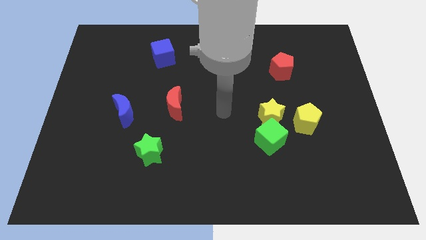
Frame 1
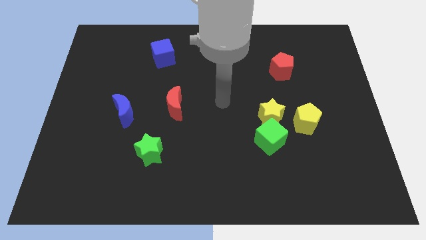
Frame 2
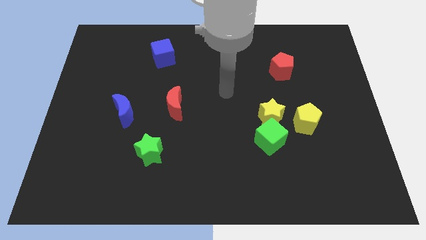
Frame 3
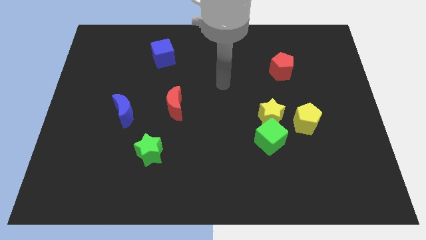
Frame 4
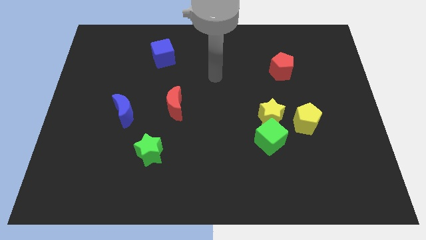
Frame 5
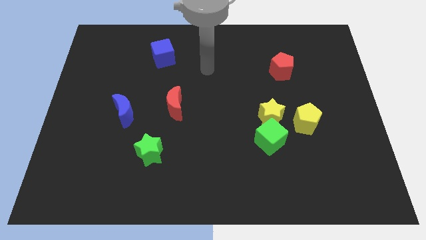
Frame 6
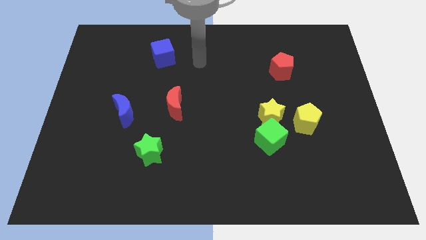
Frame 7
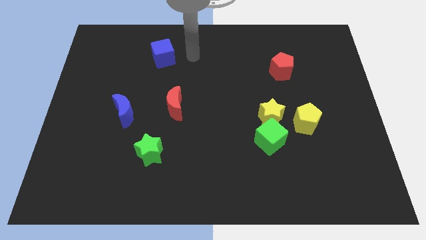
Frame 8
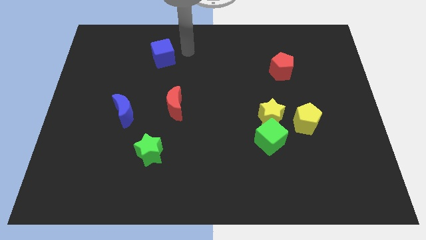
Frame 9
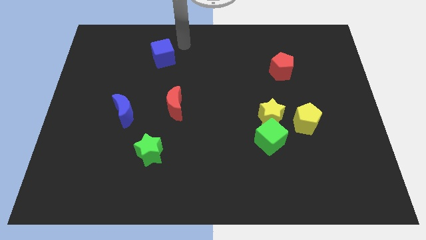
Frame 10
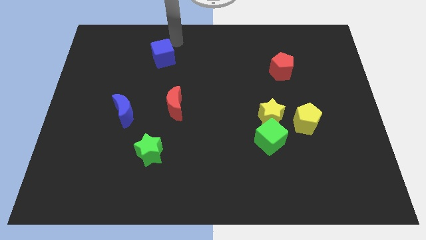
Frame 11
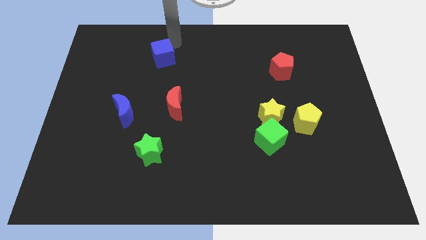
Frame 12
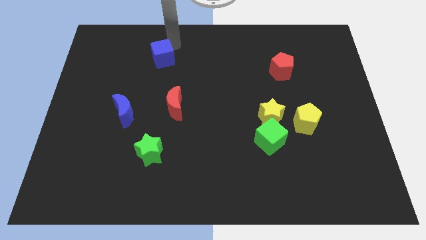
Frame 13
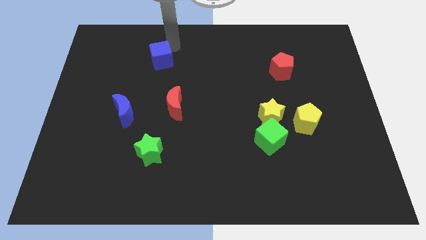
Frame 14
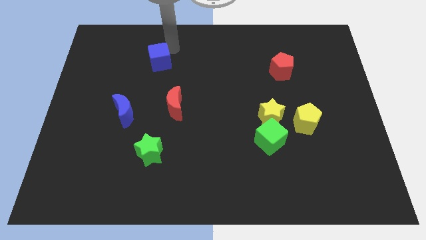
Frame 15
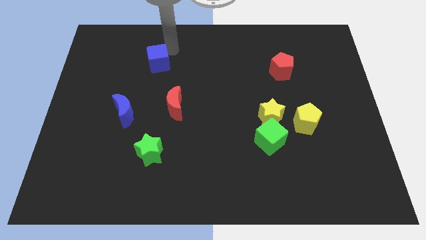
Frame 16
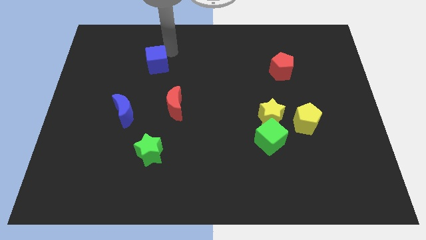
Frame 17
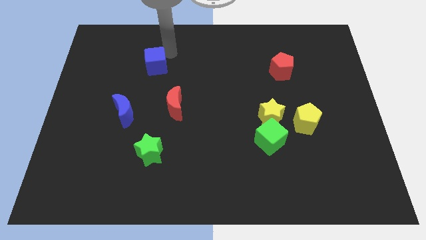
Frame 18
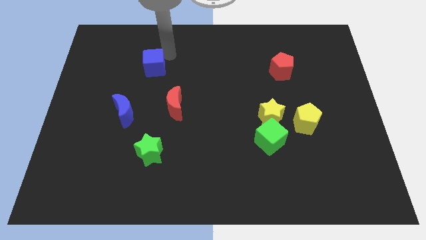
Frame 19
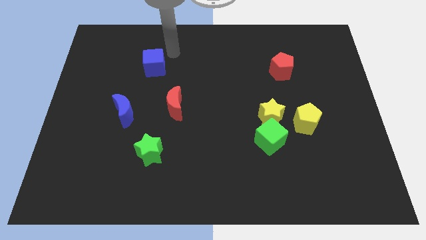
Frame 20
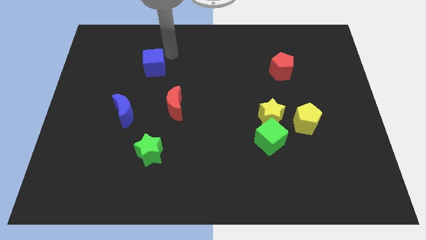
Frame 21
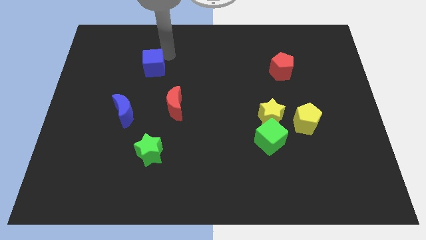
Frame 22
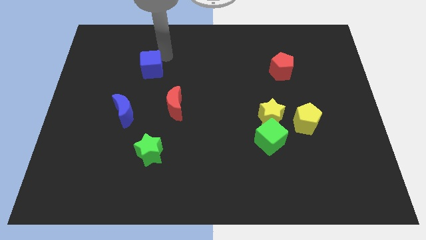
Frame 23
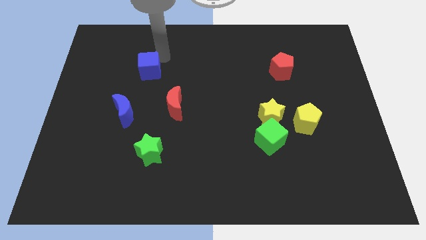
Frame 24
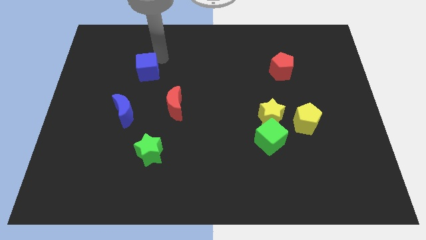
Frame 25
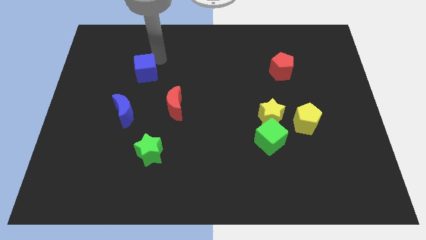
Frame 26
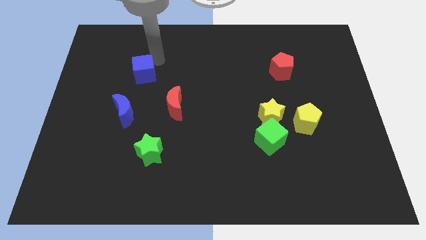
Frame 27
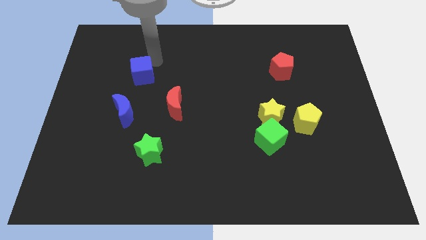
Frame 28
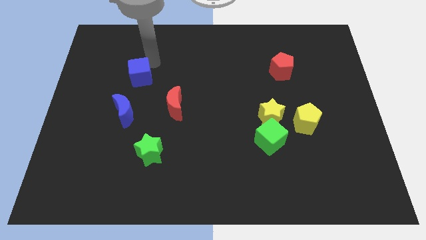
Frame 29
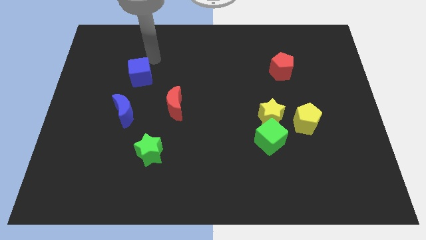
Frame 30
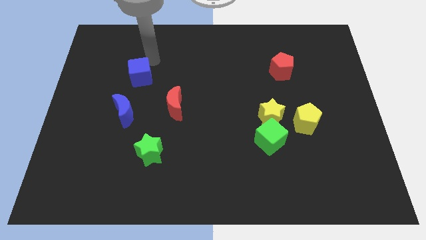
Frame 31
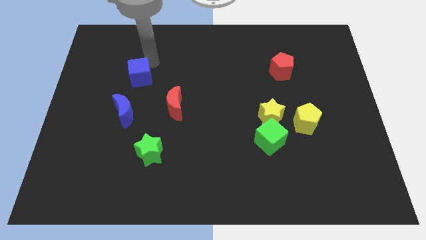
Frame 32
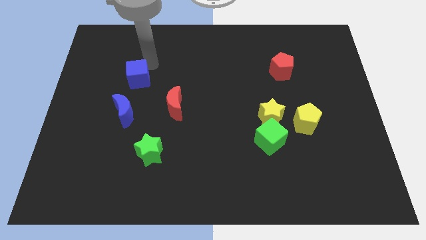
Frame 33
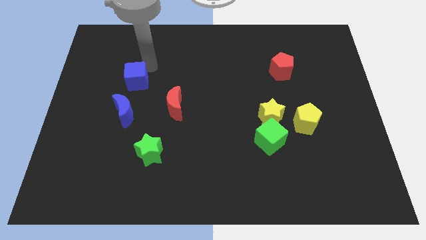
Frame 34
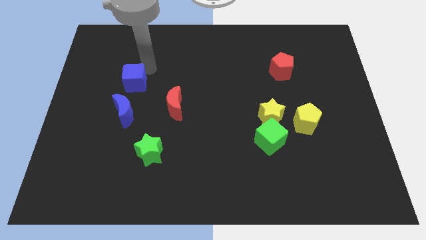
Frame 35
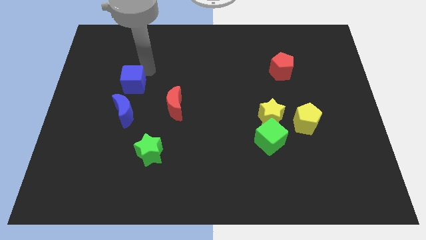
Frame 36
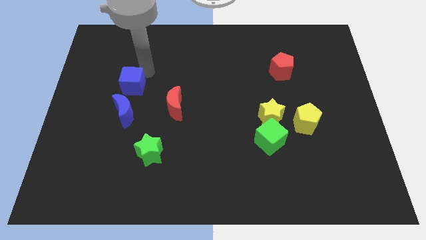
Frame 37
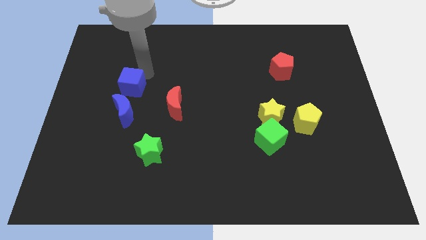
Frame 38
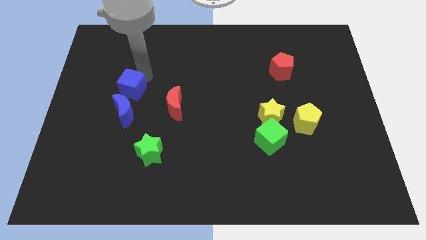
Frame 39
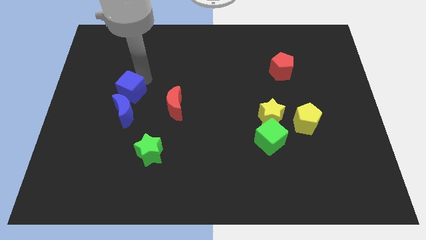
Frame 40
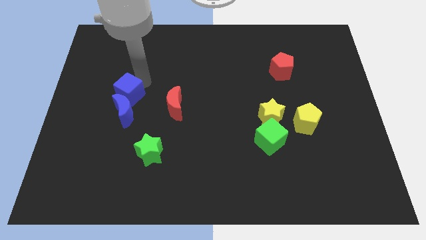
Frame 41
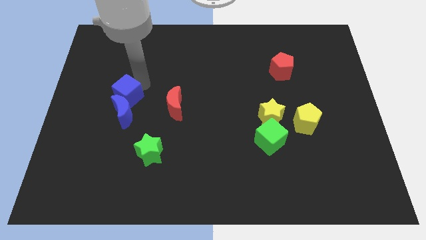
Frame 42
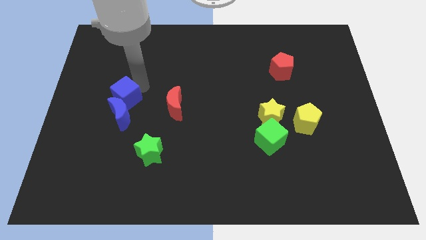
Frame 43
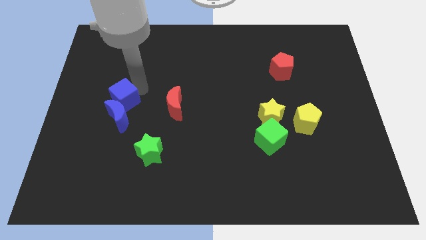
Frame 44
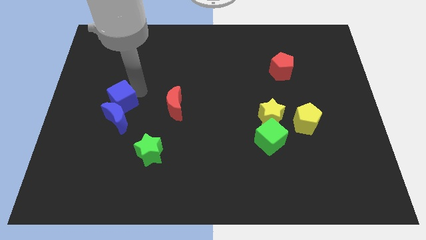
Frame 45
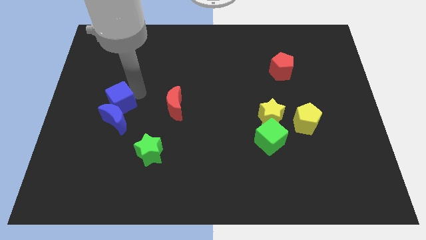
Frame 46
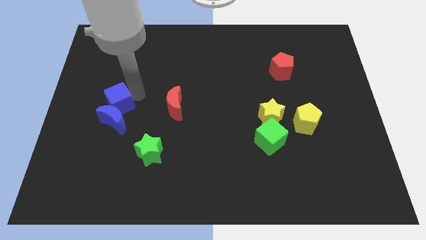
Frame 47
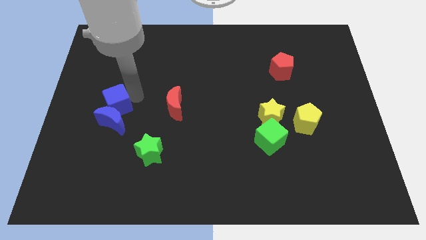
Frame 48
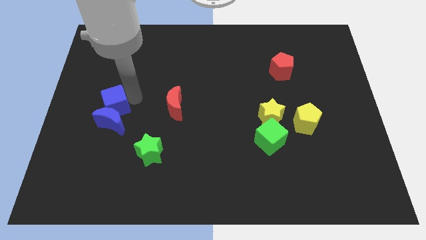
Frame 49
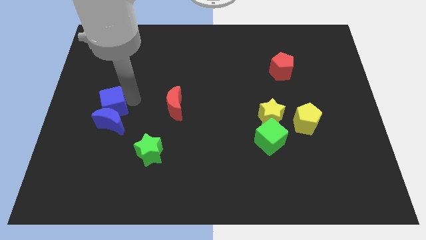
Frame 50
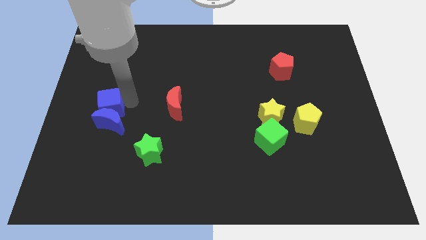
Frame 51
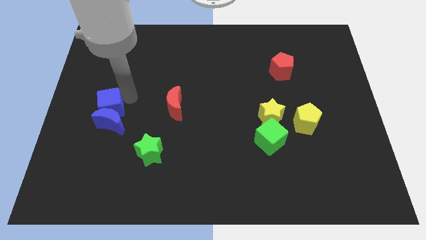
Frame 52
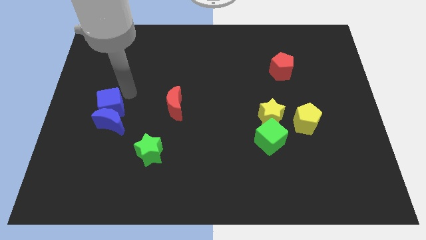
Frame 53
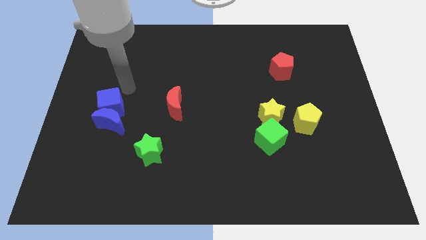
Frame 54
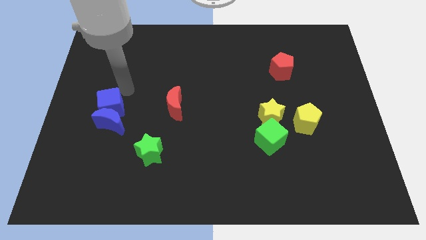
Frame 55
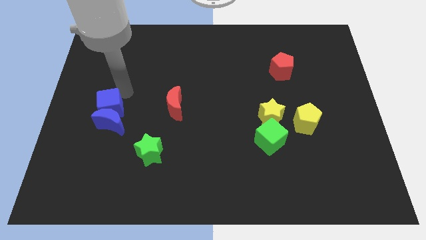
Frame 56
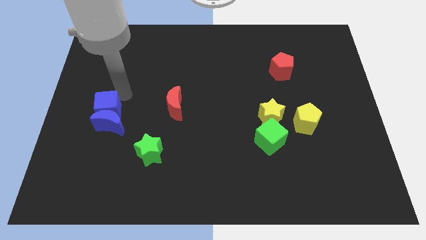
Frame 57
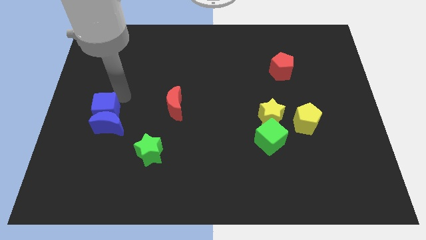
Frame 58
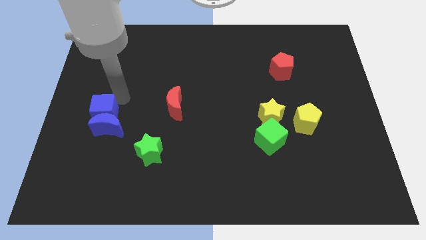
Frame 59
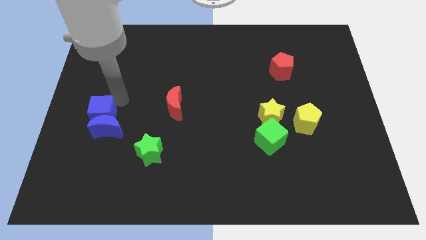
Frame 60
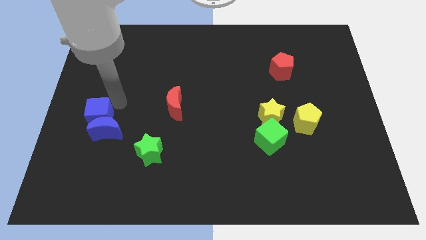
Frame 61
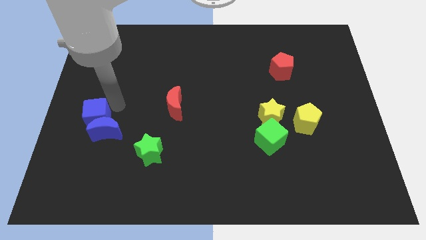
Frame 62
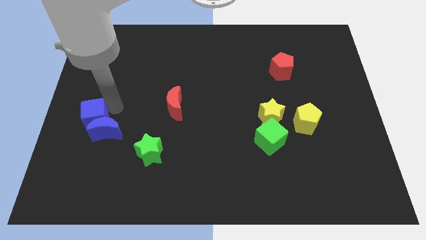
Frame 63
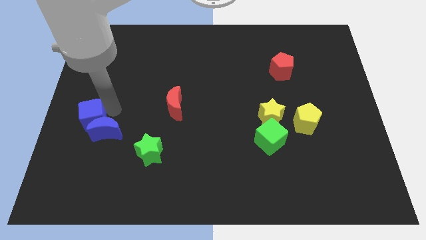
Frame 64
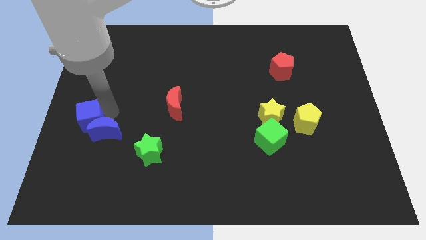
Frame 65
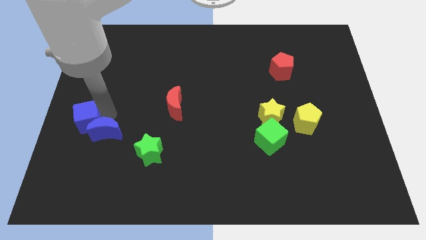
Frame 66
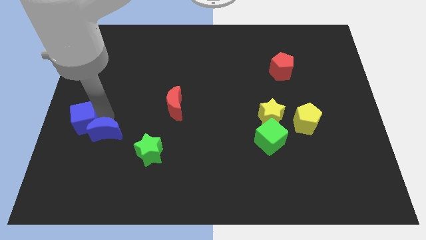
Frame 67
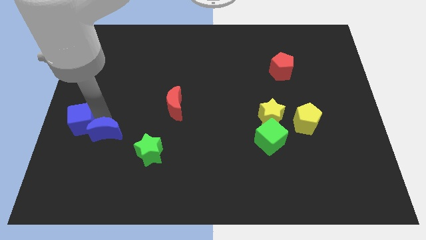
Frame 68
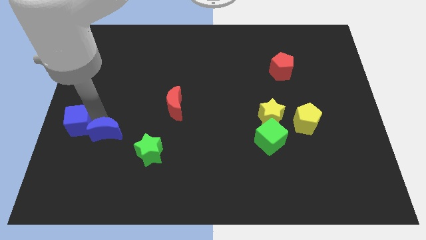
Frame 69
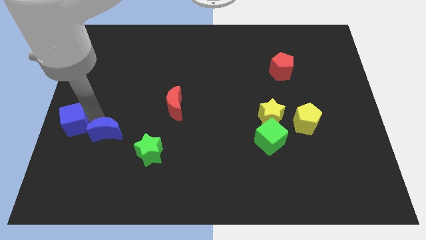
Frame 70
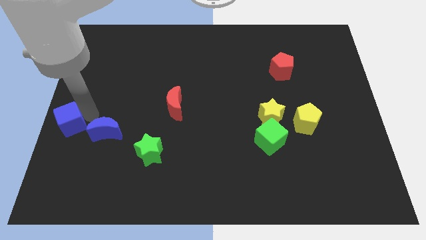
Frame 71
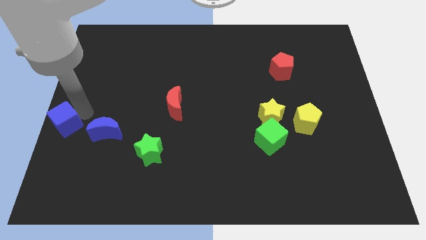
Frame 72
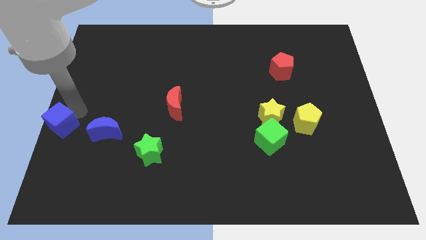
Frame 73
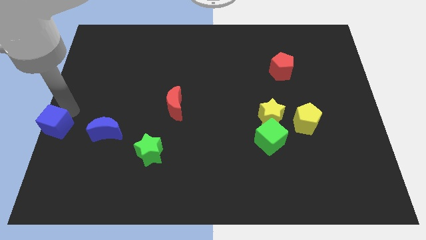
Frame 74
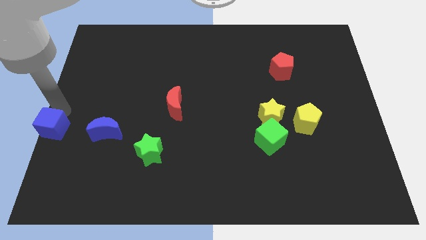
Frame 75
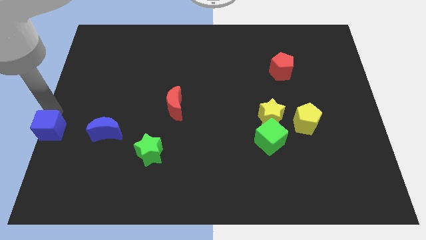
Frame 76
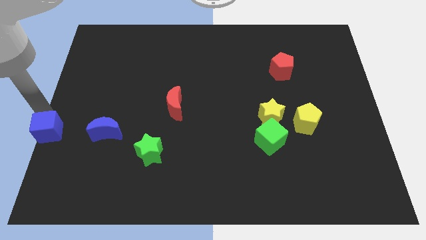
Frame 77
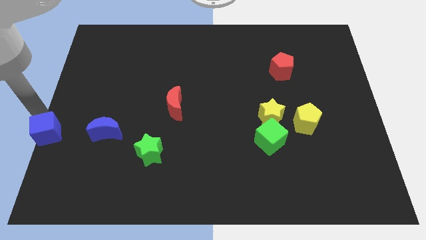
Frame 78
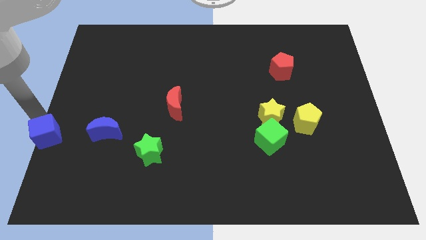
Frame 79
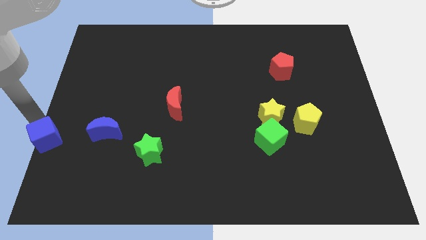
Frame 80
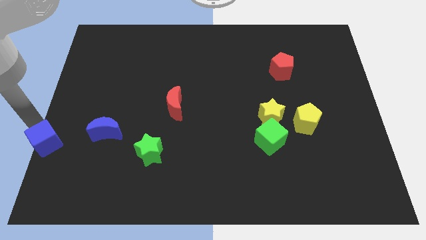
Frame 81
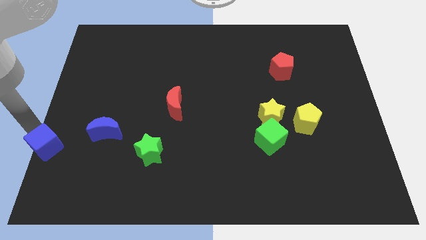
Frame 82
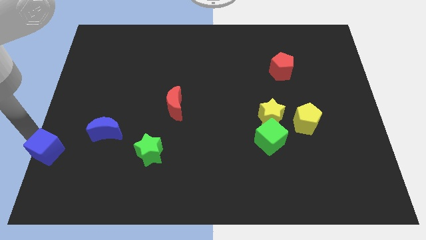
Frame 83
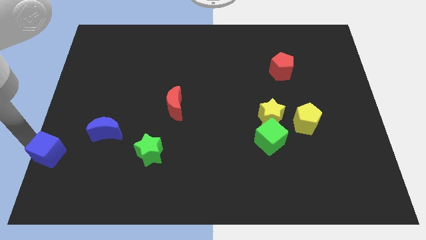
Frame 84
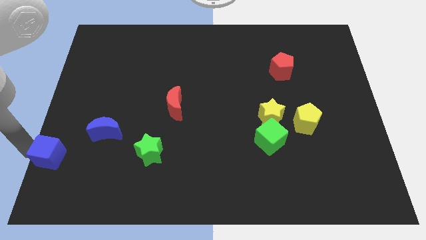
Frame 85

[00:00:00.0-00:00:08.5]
push the blue cube to the bottom left of the board
